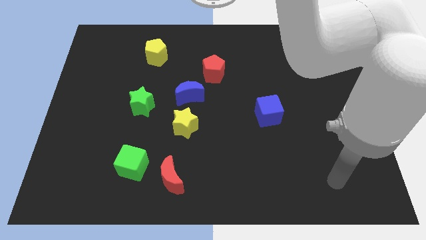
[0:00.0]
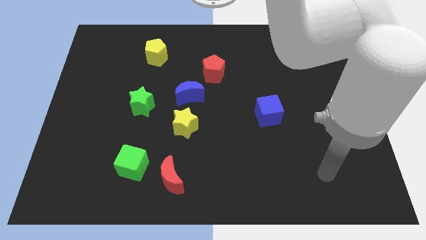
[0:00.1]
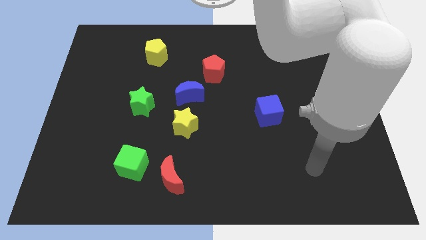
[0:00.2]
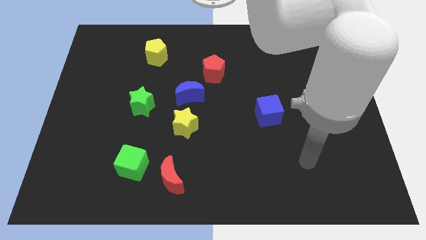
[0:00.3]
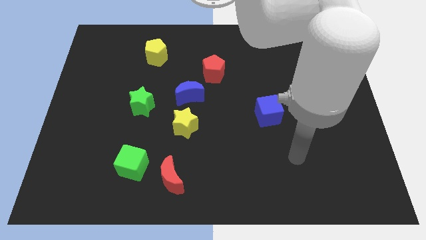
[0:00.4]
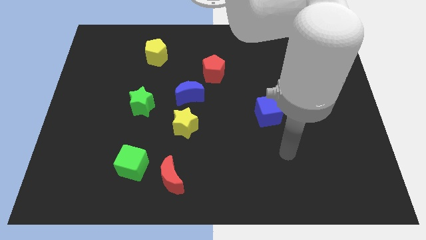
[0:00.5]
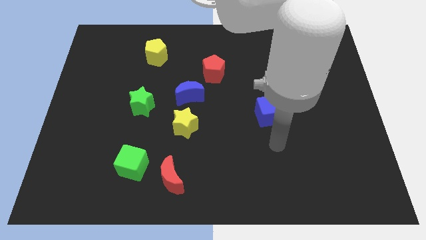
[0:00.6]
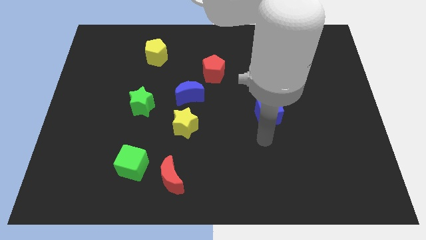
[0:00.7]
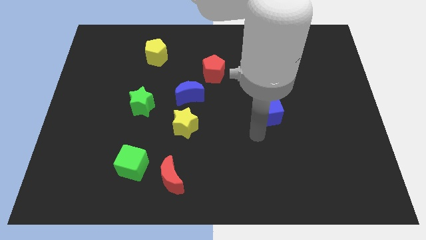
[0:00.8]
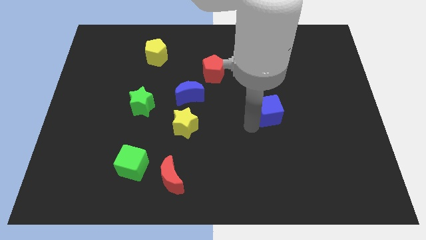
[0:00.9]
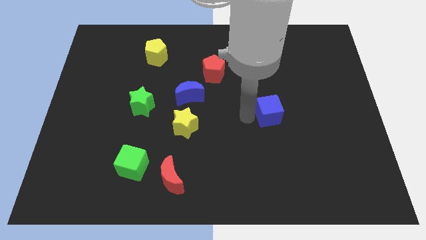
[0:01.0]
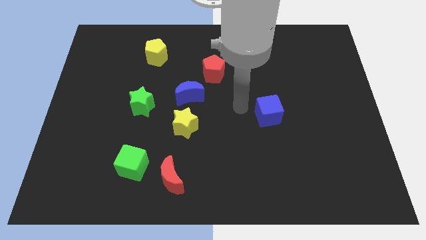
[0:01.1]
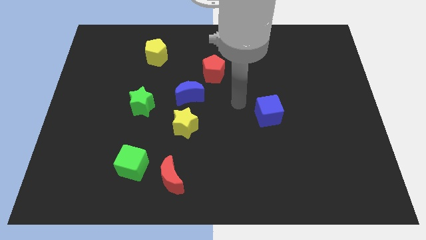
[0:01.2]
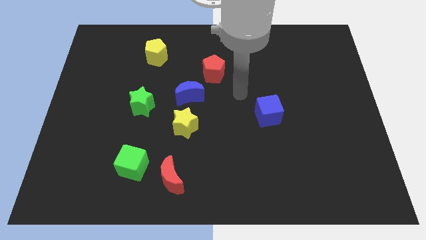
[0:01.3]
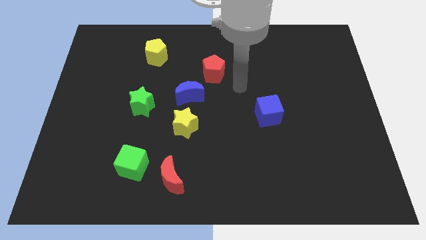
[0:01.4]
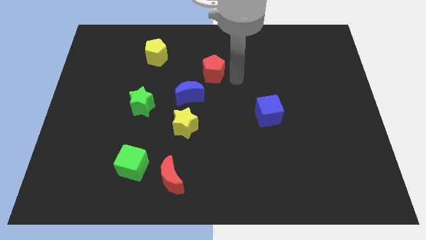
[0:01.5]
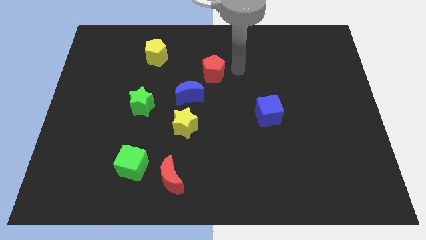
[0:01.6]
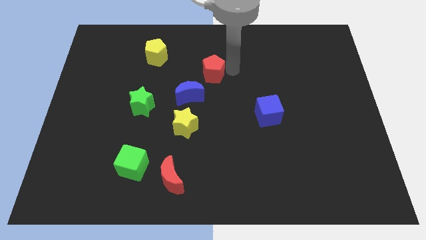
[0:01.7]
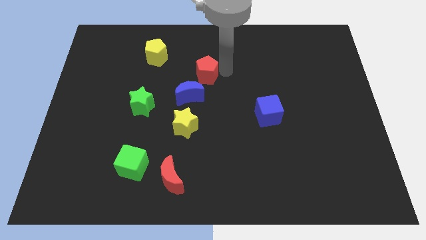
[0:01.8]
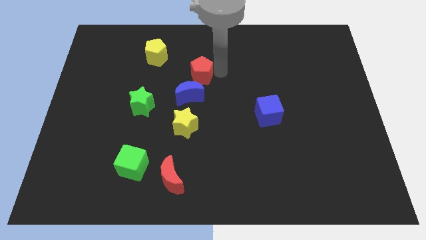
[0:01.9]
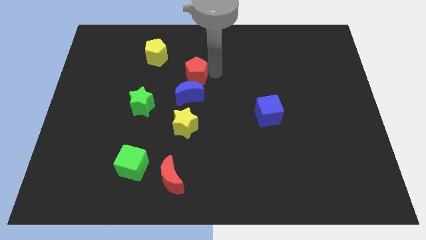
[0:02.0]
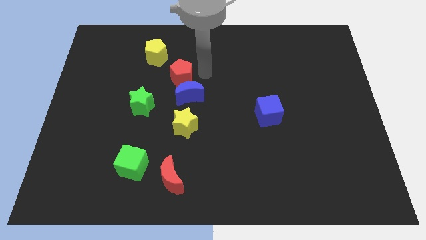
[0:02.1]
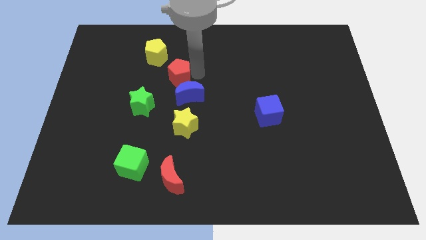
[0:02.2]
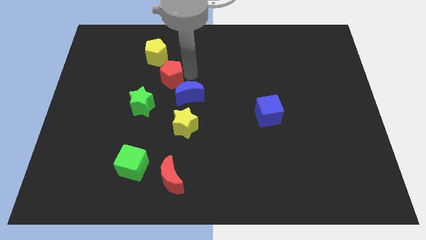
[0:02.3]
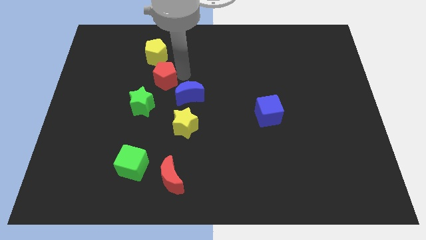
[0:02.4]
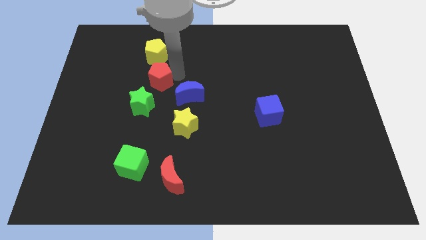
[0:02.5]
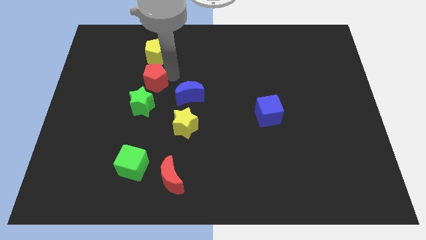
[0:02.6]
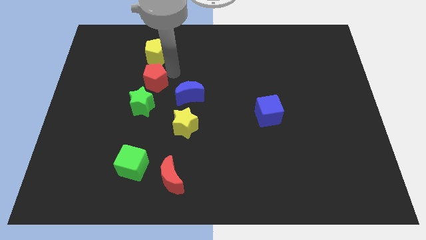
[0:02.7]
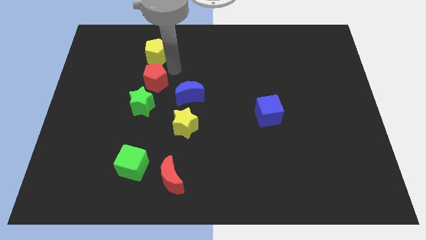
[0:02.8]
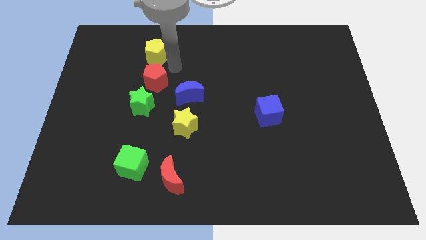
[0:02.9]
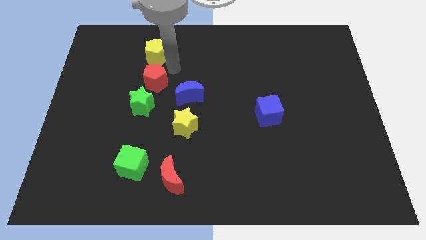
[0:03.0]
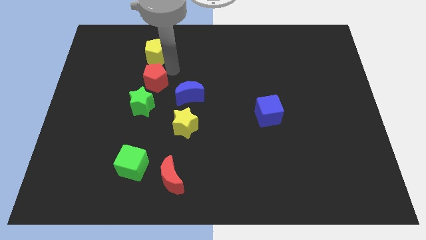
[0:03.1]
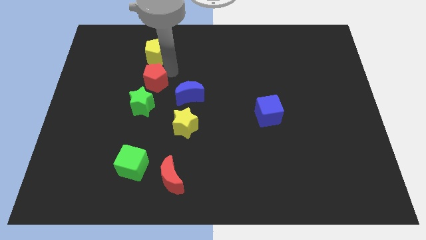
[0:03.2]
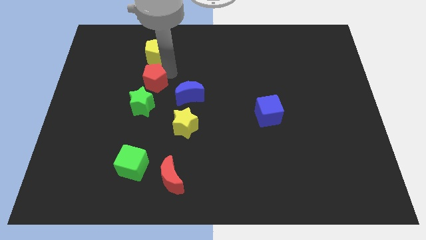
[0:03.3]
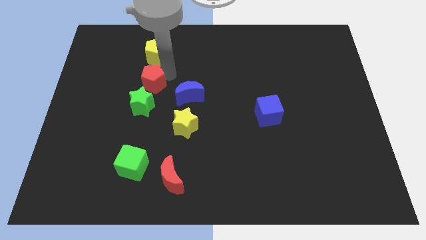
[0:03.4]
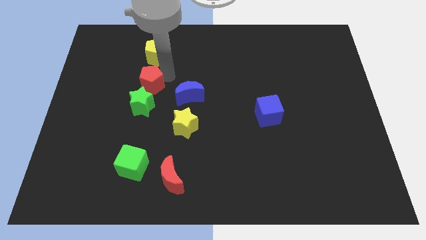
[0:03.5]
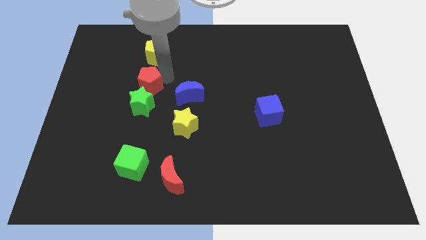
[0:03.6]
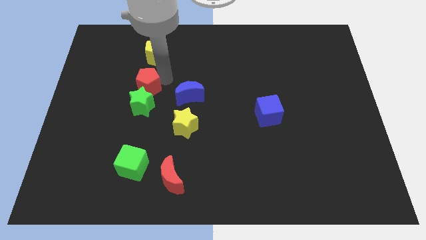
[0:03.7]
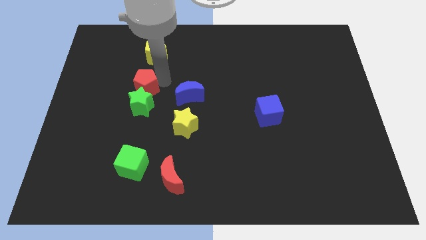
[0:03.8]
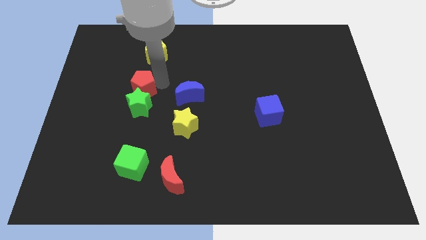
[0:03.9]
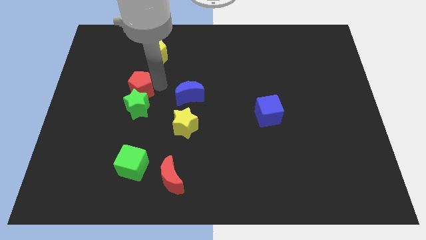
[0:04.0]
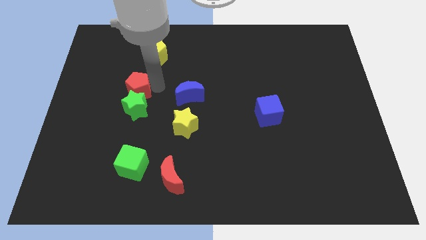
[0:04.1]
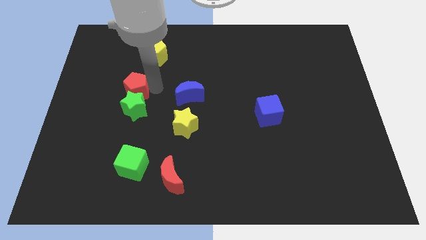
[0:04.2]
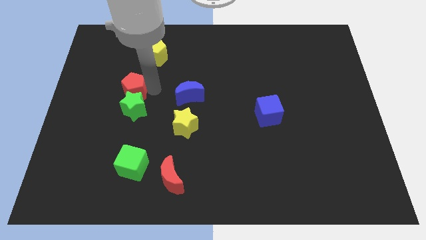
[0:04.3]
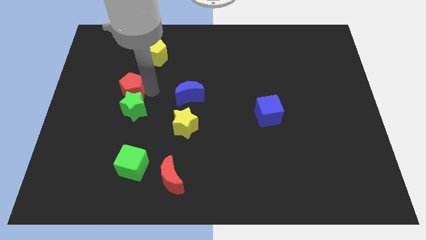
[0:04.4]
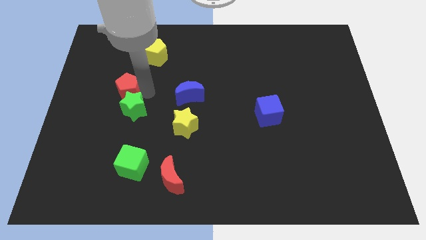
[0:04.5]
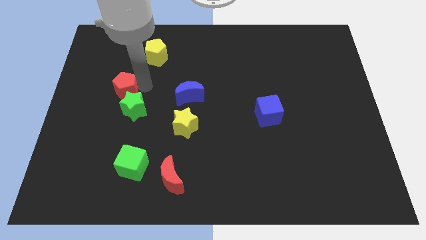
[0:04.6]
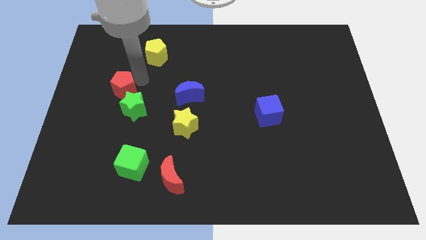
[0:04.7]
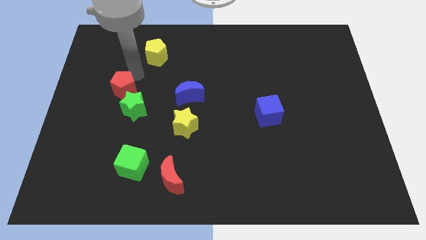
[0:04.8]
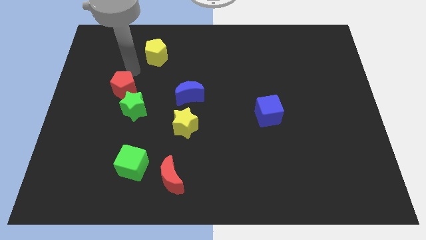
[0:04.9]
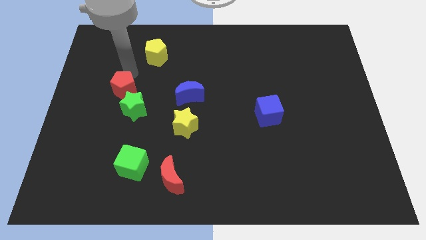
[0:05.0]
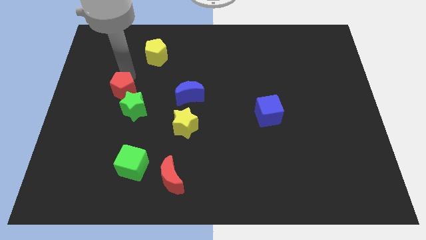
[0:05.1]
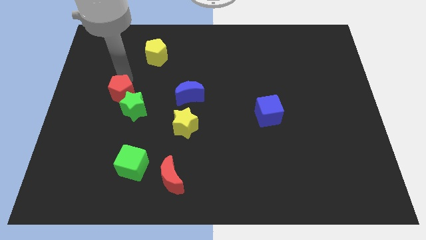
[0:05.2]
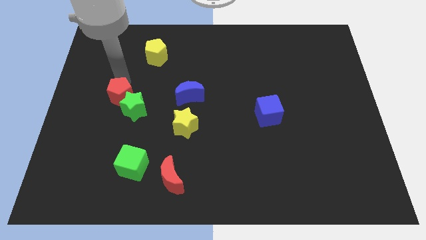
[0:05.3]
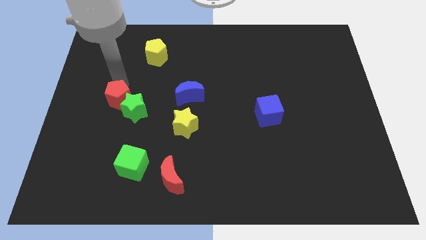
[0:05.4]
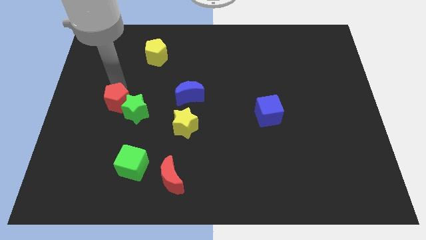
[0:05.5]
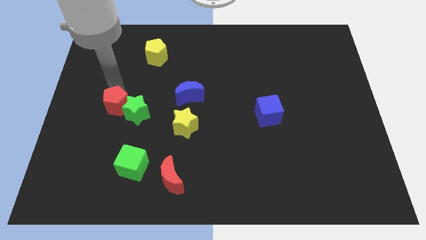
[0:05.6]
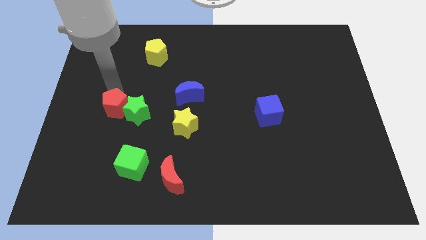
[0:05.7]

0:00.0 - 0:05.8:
slide the red pentagon to the bottom left side of the green star
